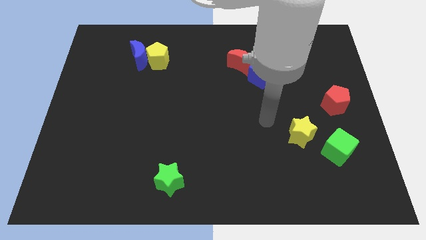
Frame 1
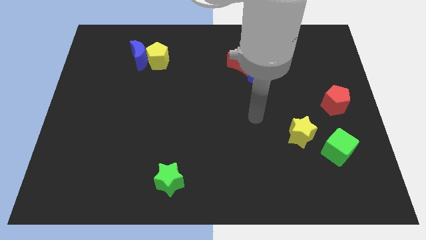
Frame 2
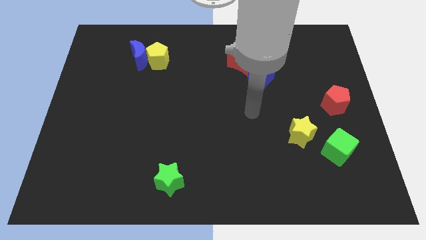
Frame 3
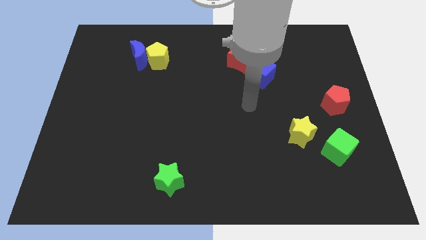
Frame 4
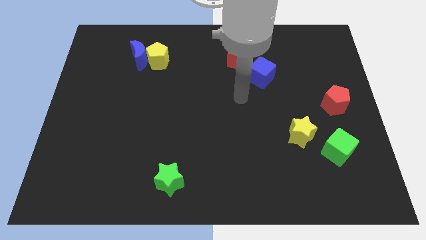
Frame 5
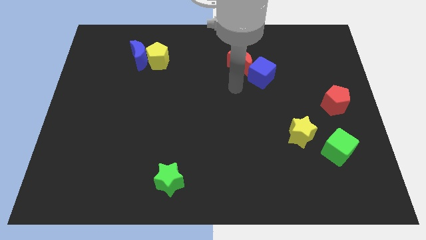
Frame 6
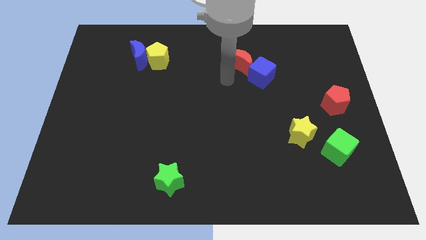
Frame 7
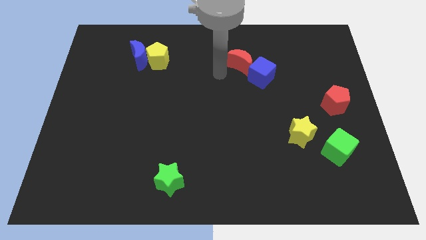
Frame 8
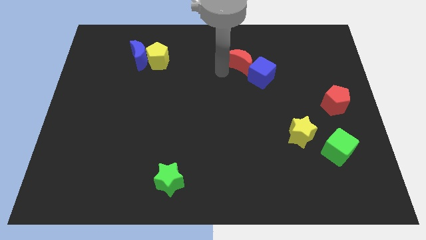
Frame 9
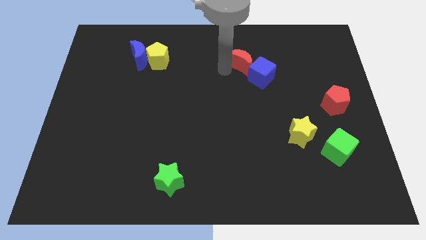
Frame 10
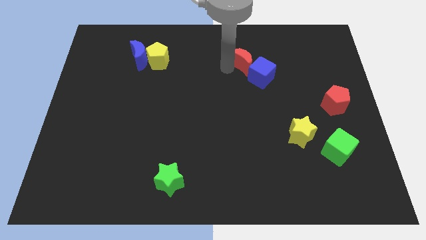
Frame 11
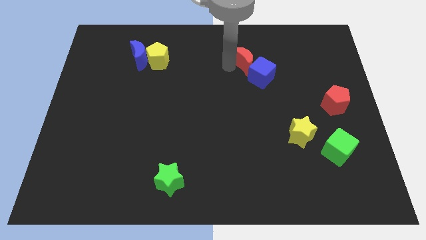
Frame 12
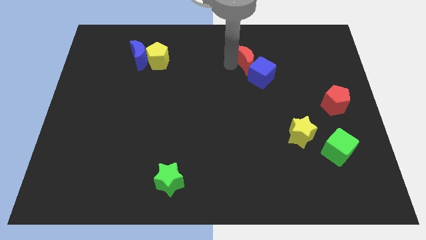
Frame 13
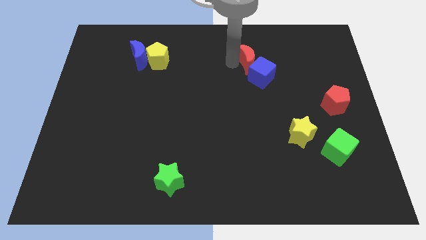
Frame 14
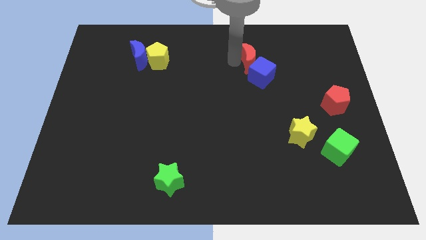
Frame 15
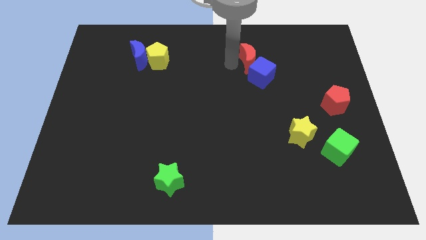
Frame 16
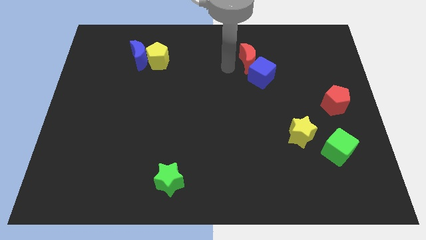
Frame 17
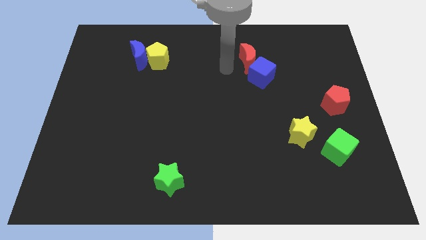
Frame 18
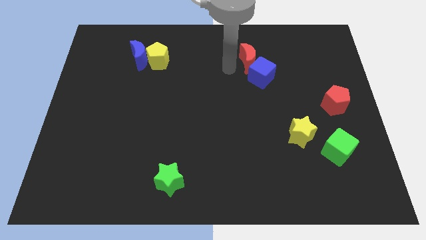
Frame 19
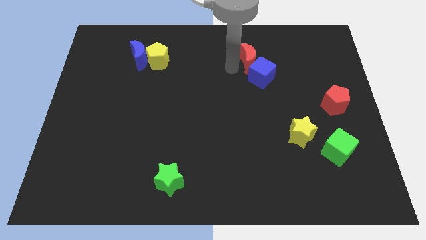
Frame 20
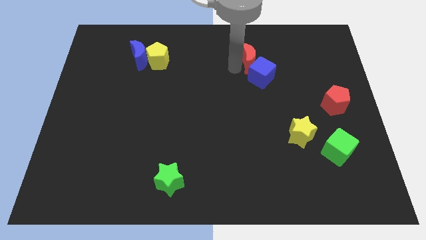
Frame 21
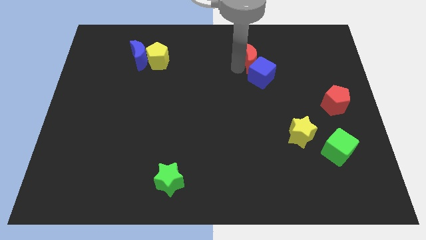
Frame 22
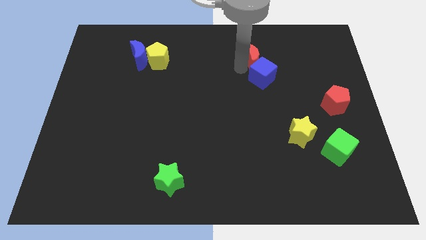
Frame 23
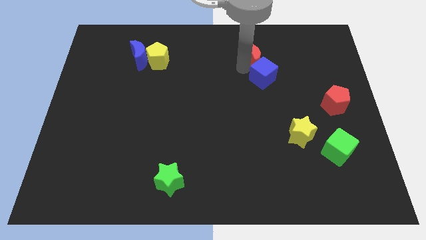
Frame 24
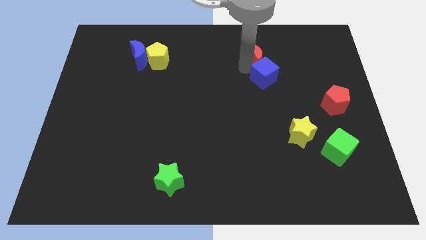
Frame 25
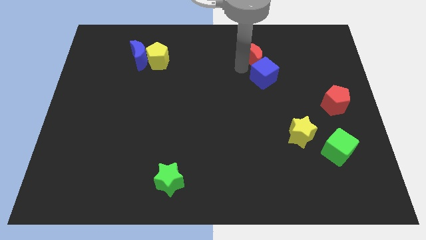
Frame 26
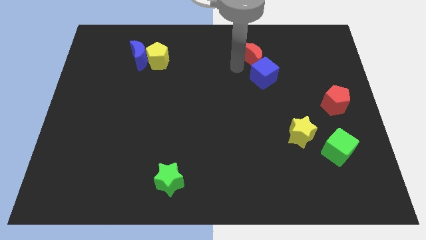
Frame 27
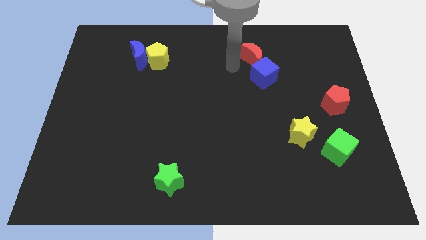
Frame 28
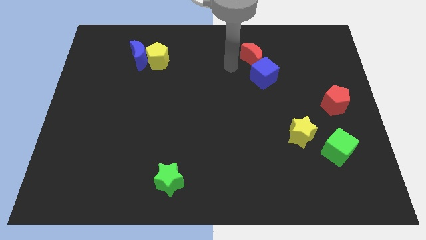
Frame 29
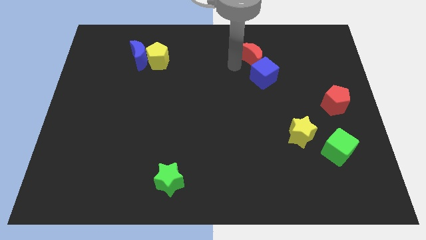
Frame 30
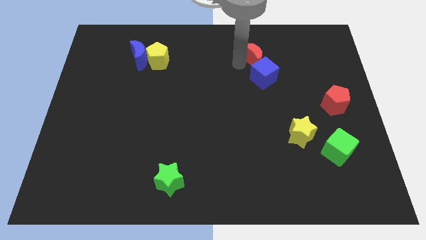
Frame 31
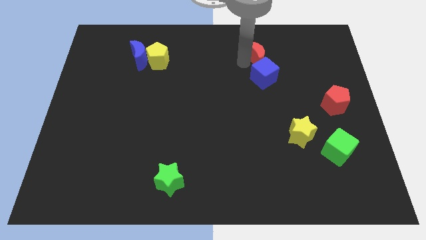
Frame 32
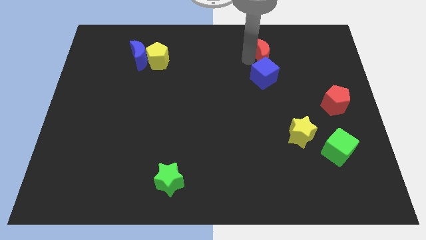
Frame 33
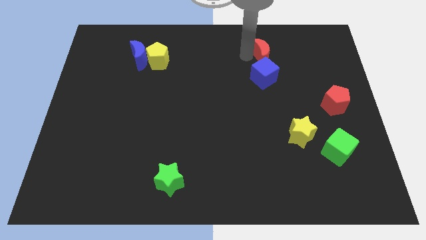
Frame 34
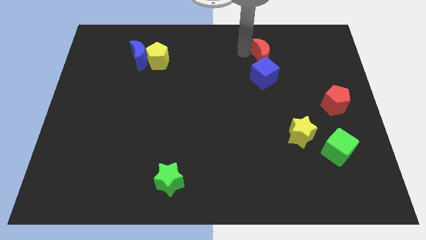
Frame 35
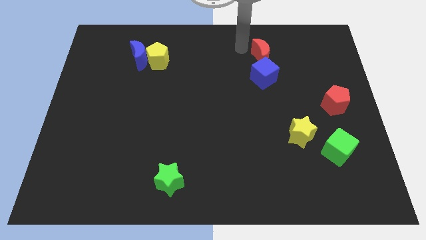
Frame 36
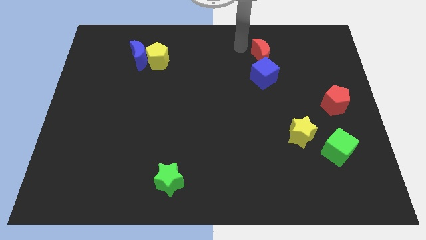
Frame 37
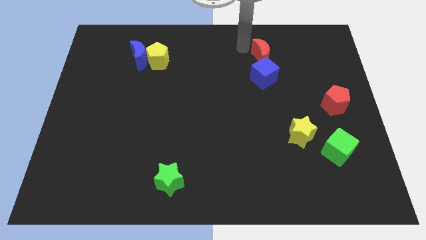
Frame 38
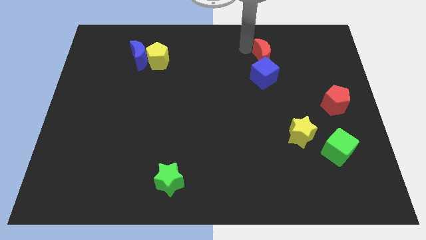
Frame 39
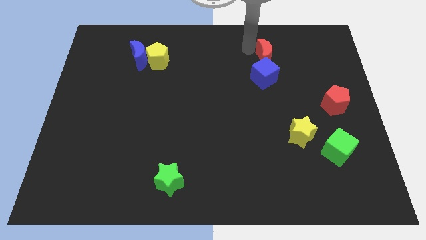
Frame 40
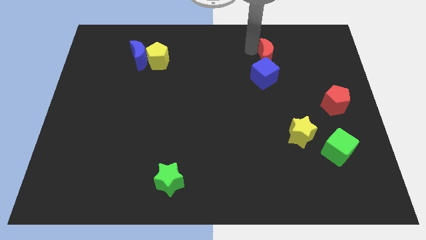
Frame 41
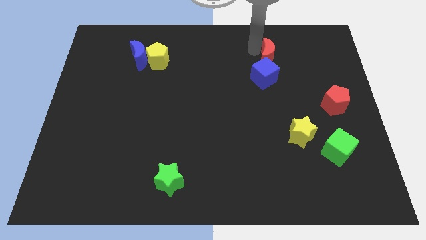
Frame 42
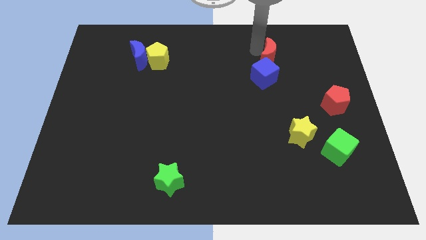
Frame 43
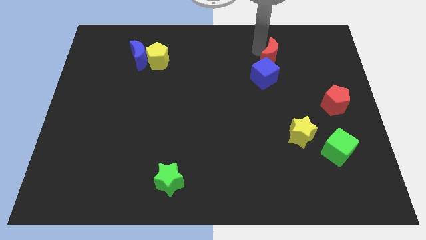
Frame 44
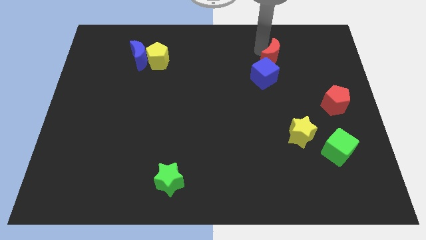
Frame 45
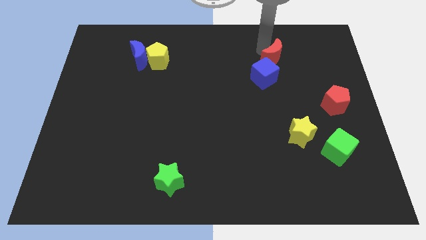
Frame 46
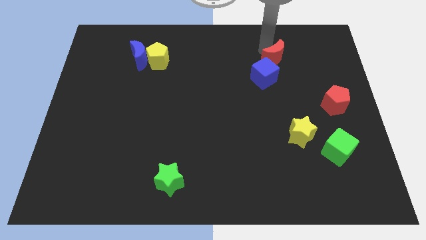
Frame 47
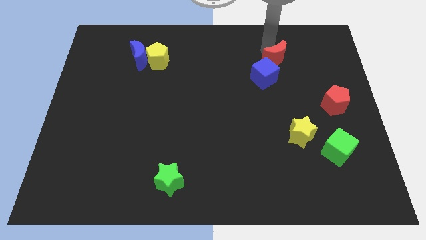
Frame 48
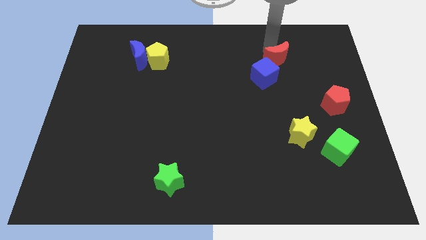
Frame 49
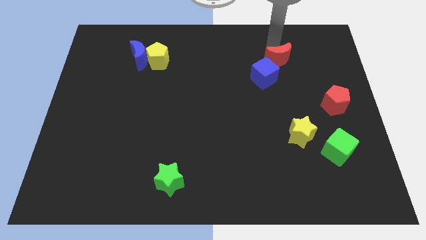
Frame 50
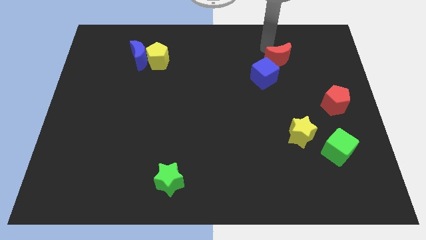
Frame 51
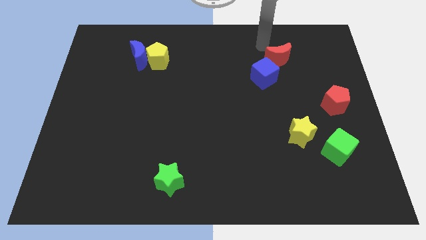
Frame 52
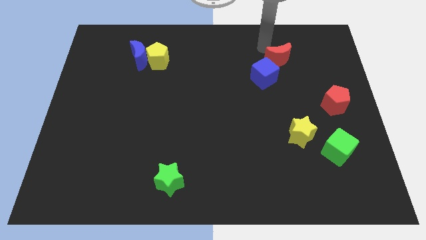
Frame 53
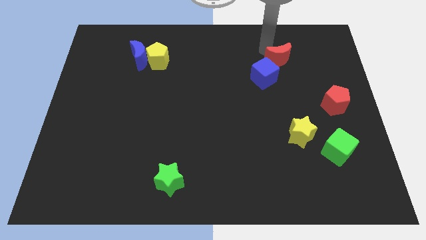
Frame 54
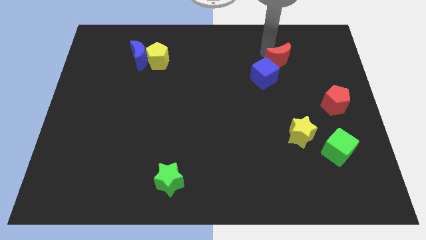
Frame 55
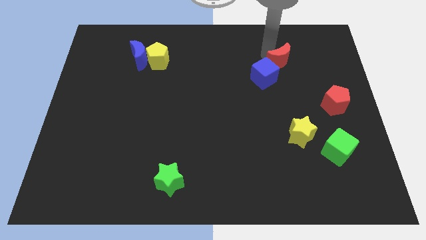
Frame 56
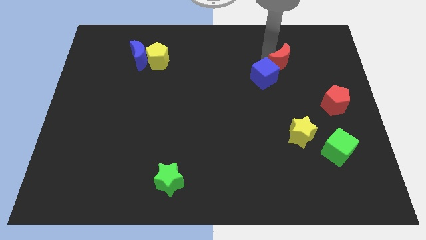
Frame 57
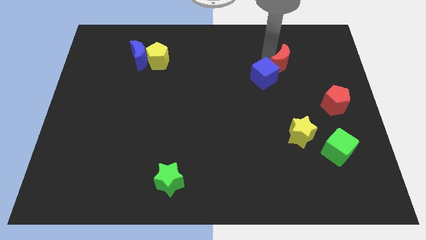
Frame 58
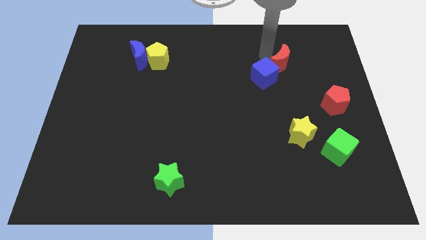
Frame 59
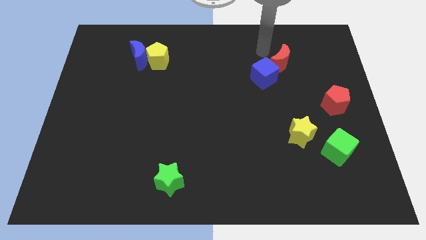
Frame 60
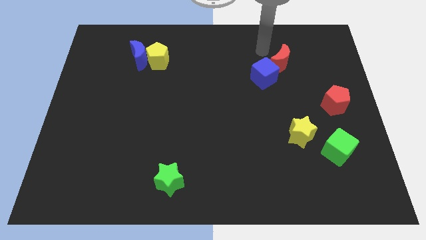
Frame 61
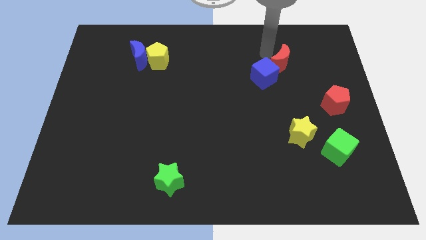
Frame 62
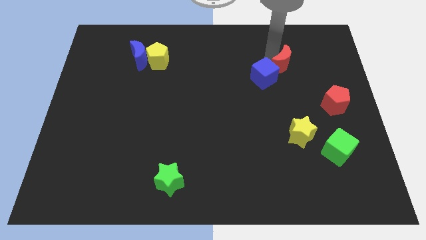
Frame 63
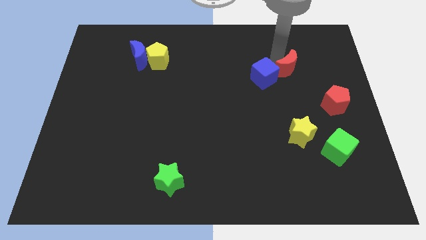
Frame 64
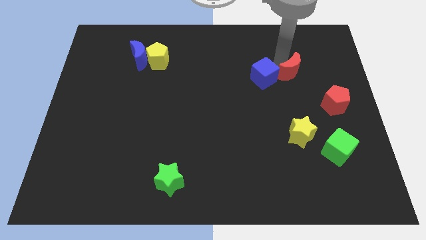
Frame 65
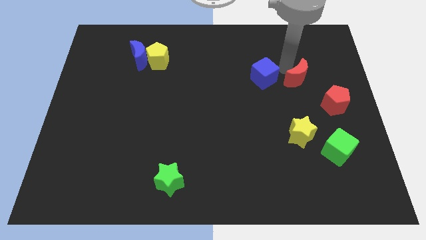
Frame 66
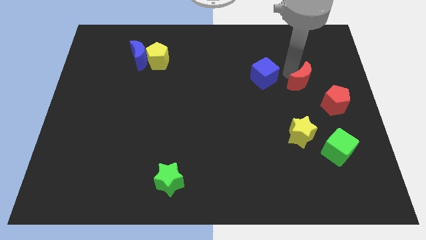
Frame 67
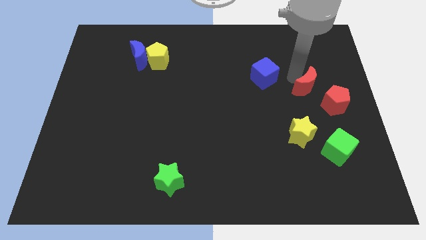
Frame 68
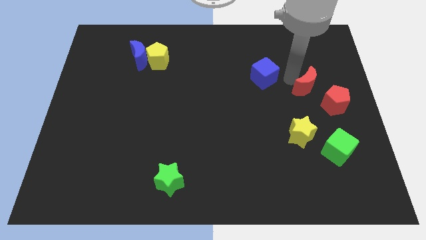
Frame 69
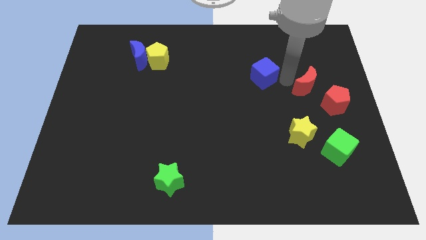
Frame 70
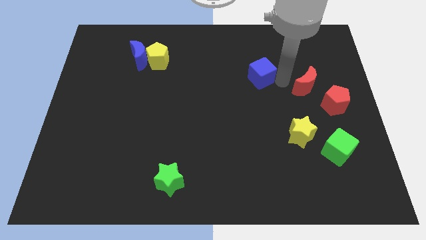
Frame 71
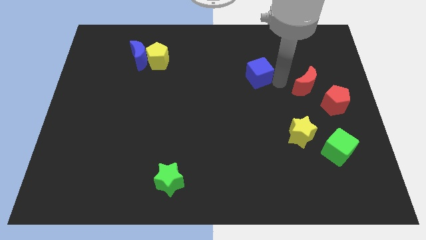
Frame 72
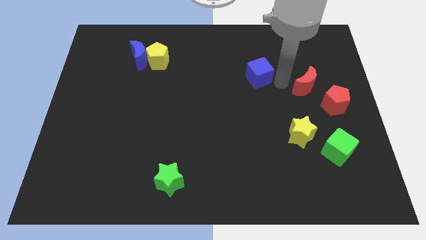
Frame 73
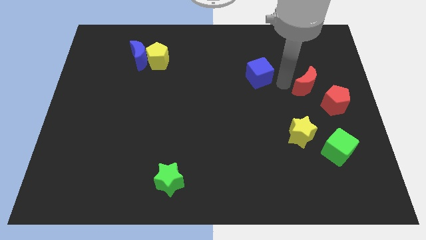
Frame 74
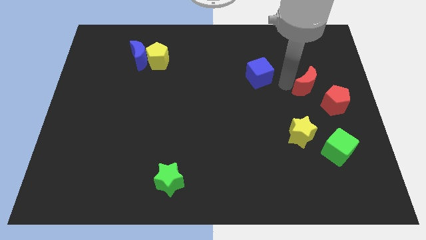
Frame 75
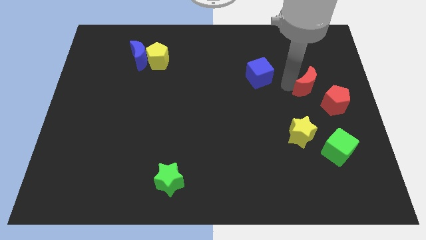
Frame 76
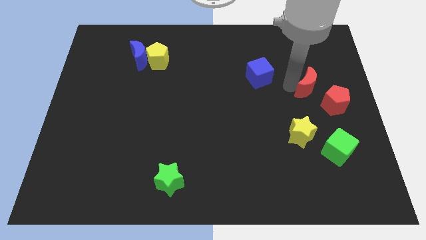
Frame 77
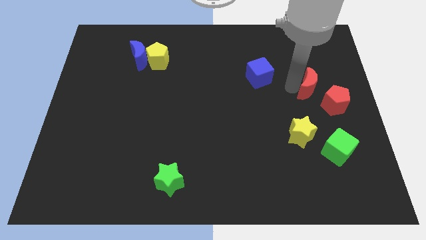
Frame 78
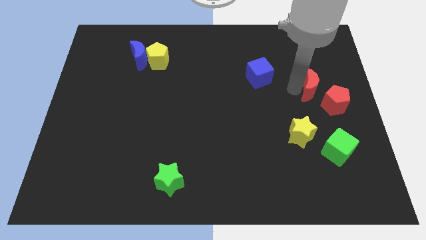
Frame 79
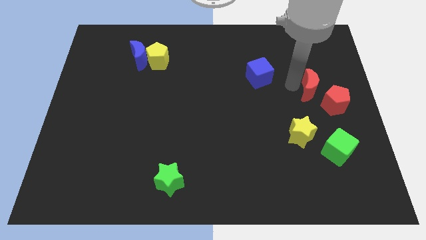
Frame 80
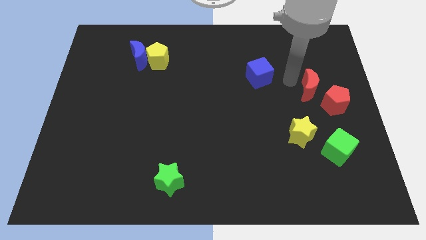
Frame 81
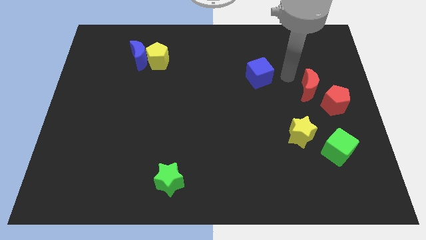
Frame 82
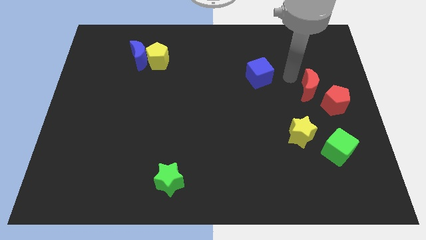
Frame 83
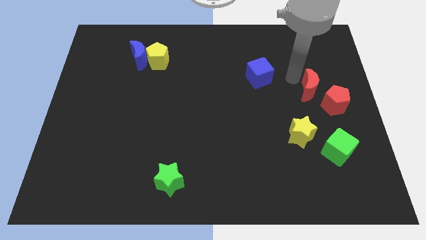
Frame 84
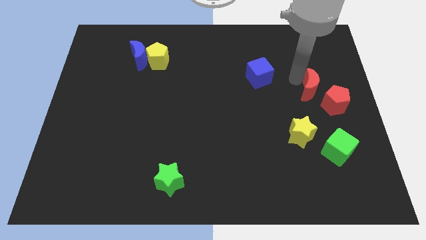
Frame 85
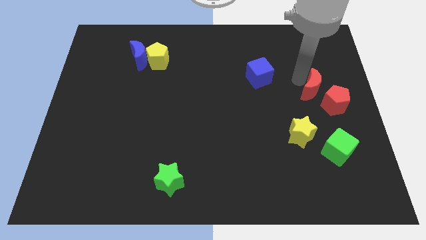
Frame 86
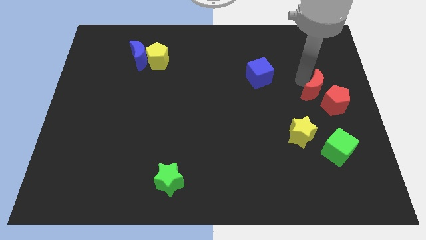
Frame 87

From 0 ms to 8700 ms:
move the red moon to the red pentagon
